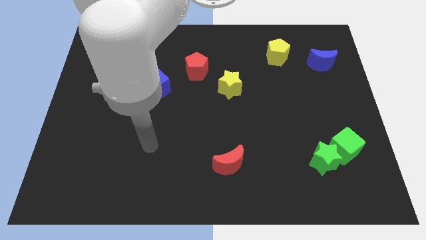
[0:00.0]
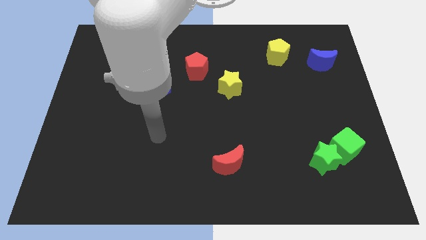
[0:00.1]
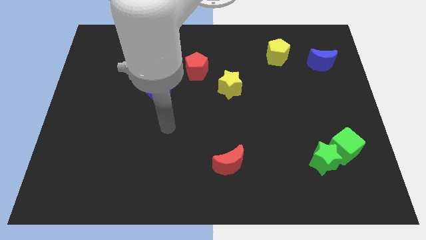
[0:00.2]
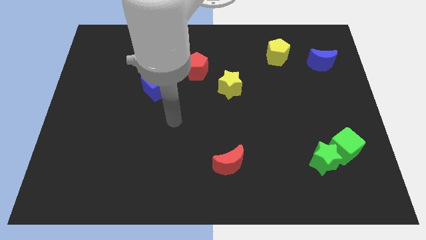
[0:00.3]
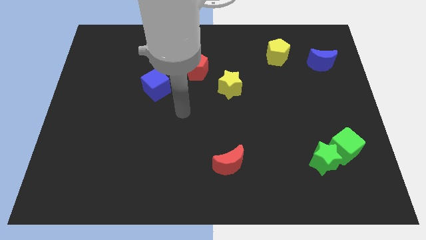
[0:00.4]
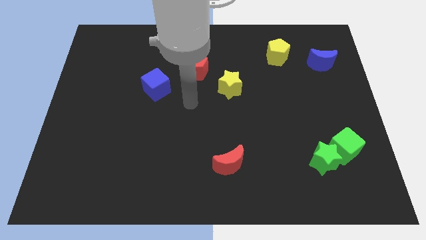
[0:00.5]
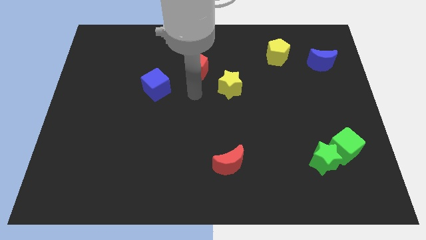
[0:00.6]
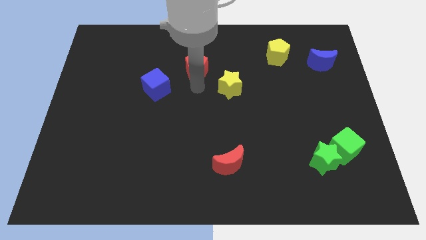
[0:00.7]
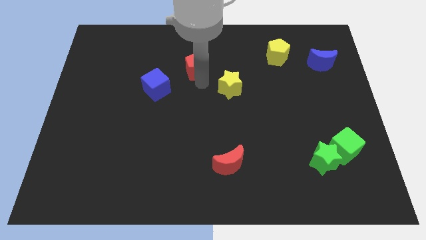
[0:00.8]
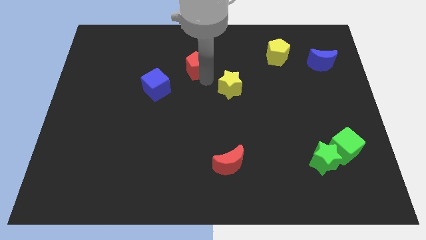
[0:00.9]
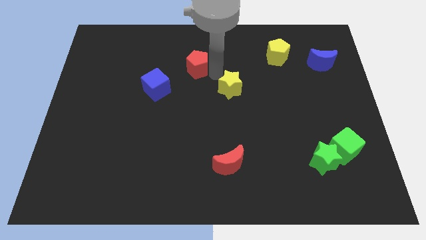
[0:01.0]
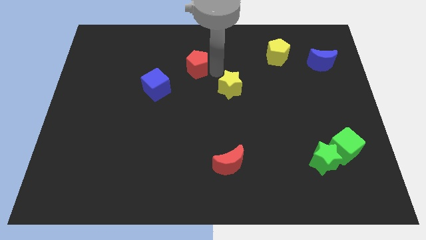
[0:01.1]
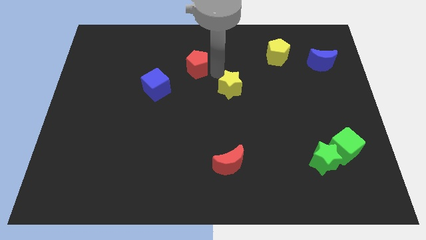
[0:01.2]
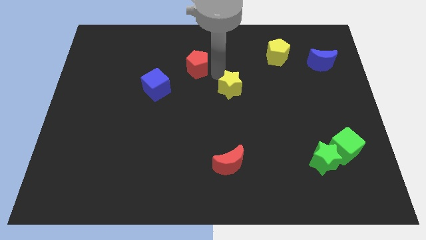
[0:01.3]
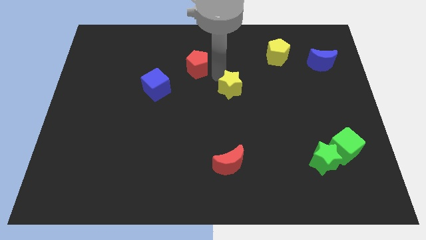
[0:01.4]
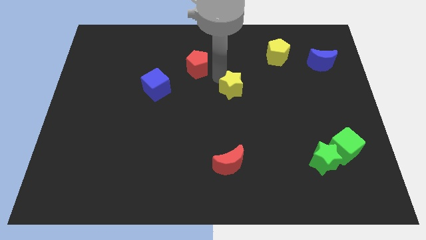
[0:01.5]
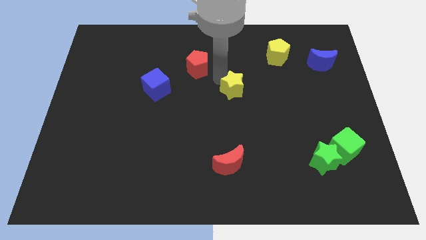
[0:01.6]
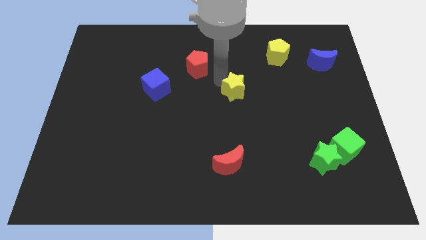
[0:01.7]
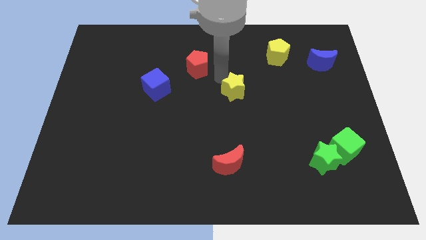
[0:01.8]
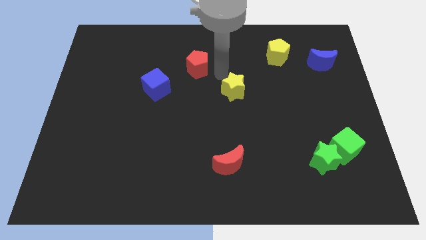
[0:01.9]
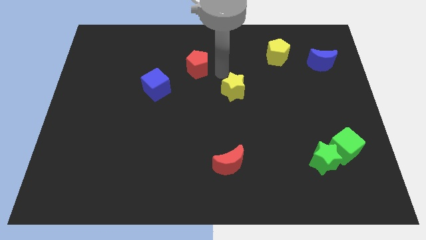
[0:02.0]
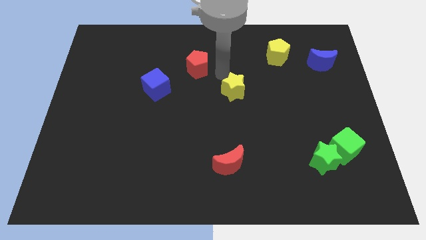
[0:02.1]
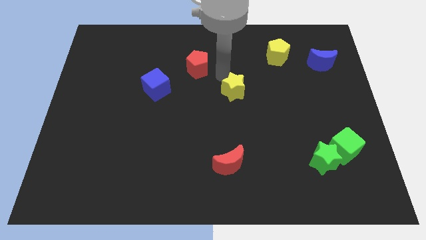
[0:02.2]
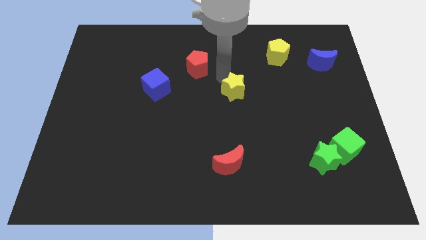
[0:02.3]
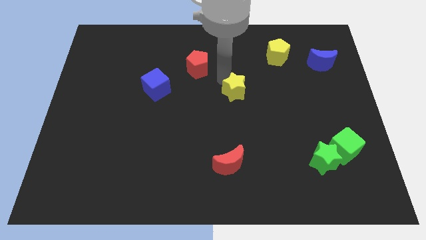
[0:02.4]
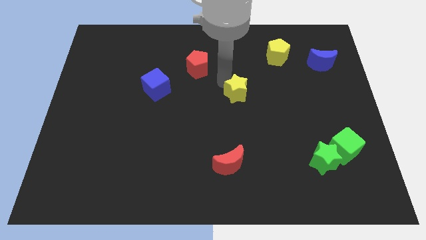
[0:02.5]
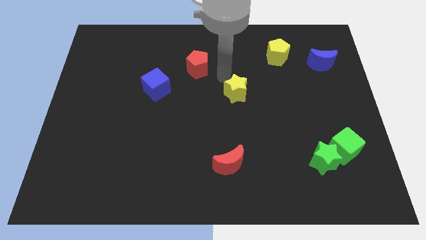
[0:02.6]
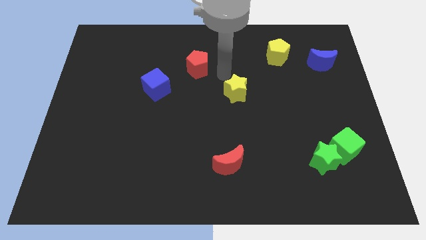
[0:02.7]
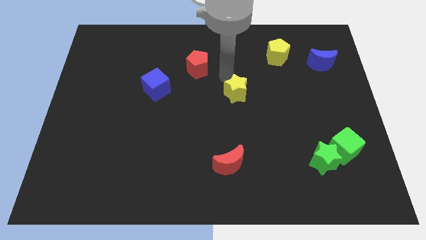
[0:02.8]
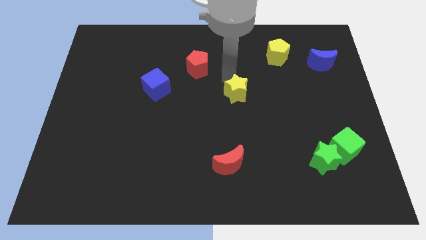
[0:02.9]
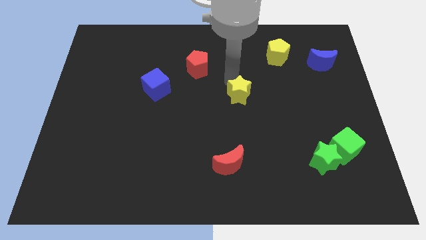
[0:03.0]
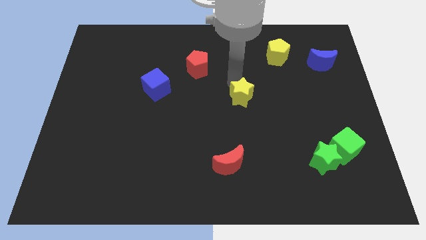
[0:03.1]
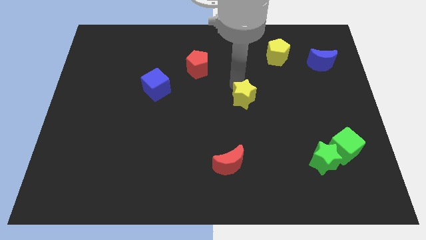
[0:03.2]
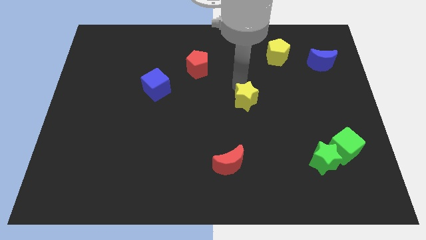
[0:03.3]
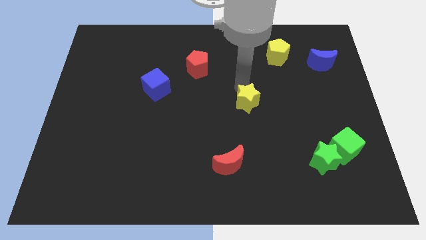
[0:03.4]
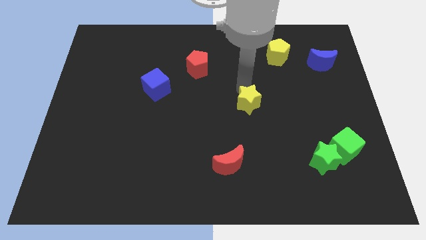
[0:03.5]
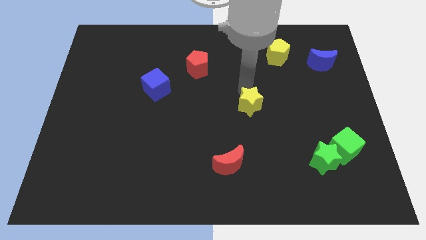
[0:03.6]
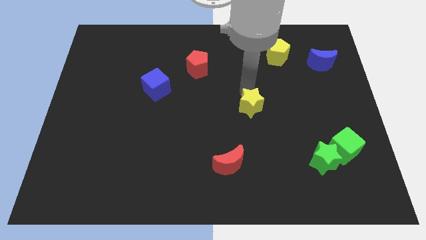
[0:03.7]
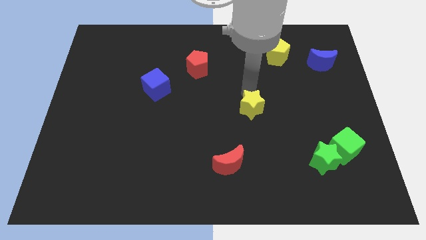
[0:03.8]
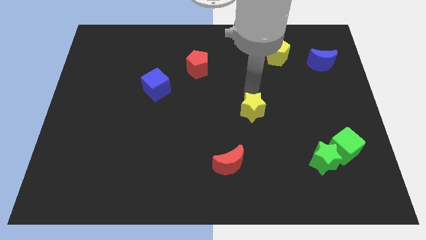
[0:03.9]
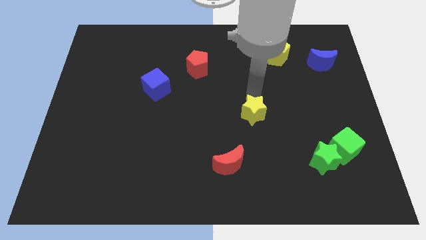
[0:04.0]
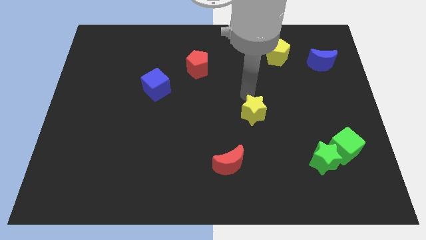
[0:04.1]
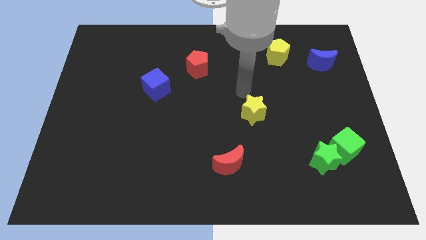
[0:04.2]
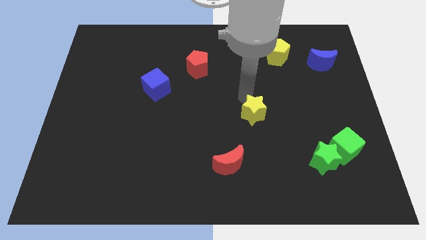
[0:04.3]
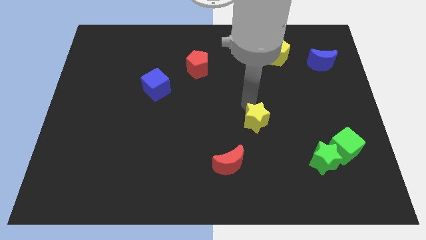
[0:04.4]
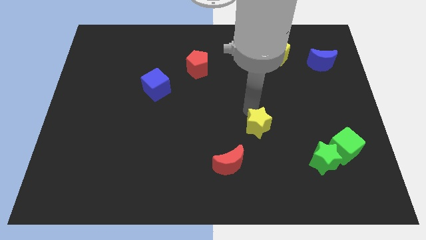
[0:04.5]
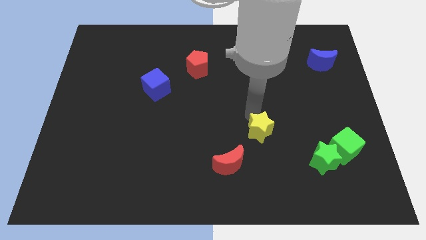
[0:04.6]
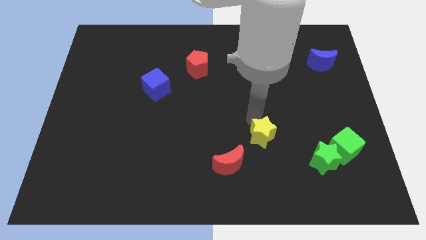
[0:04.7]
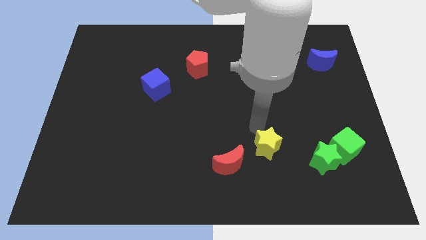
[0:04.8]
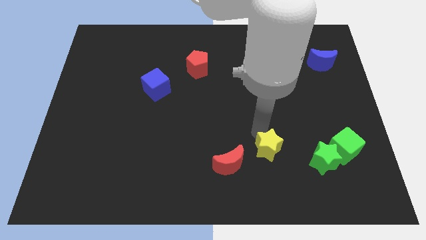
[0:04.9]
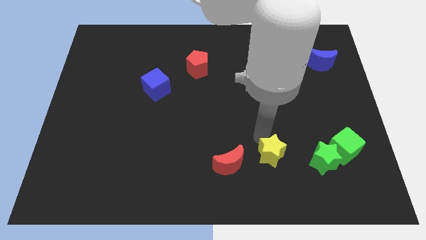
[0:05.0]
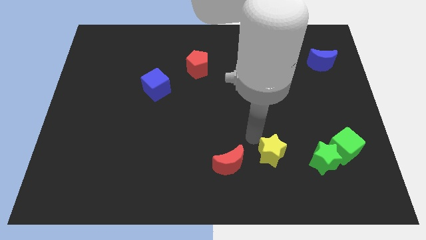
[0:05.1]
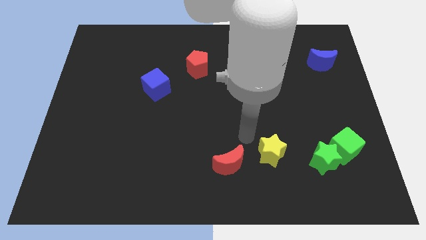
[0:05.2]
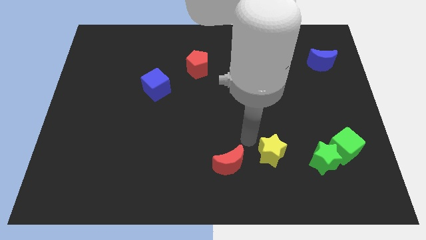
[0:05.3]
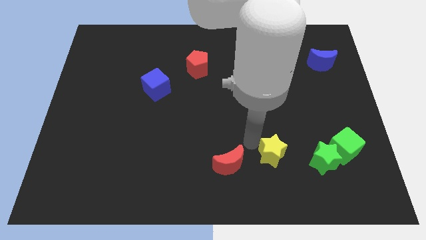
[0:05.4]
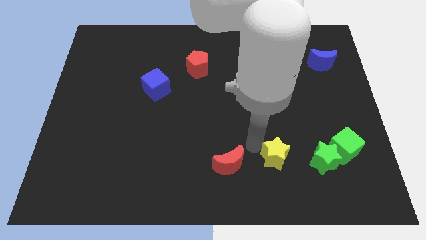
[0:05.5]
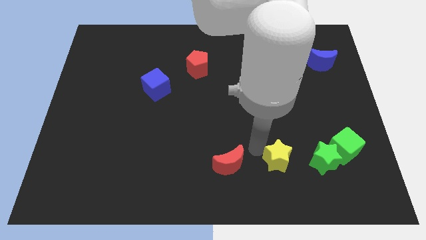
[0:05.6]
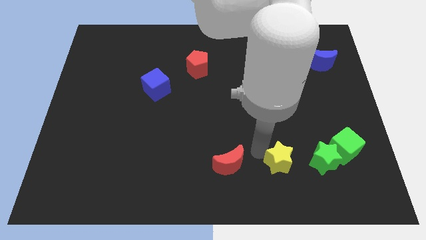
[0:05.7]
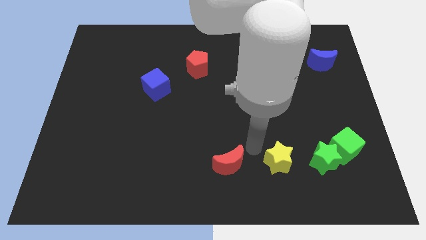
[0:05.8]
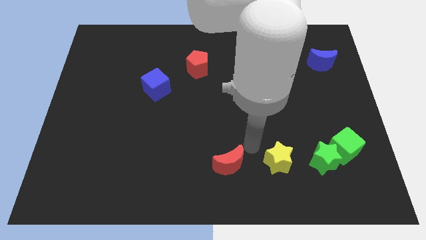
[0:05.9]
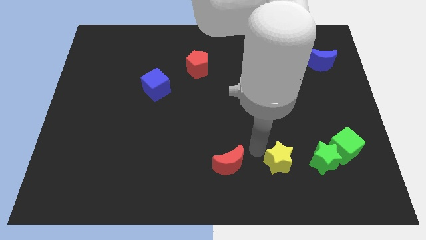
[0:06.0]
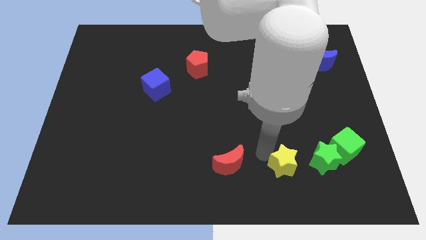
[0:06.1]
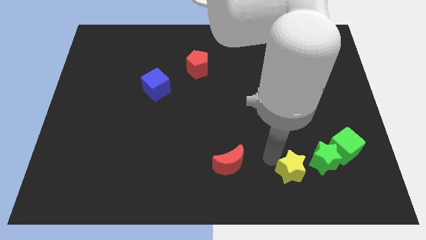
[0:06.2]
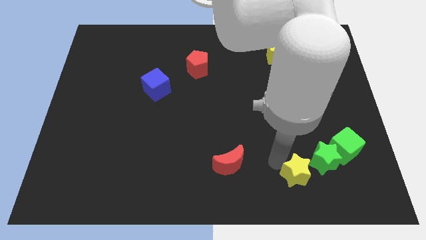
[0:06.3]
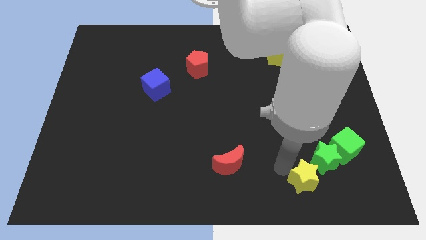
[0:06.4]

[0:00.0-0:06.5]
move the yellow star diagonally down and to the left of the green cube

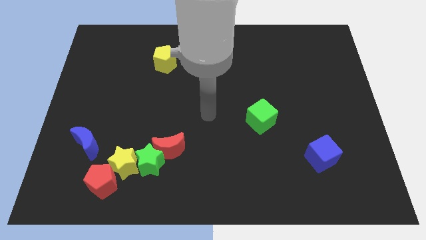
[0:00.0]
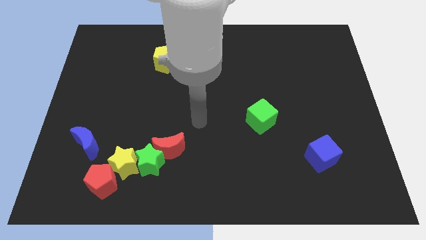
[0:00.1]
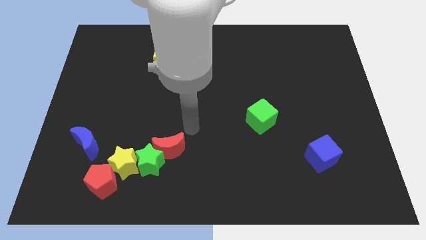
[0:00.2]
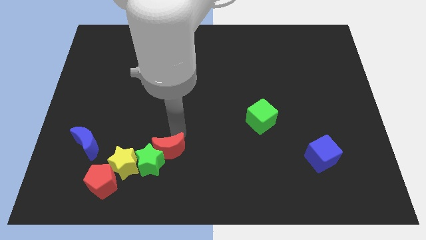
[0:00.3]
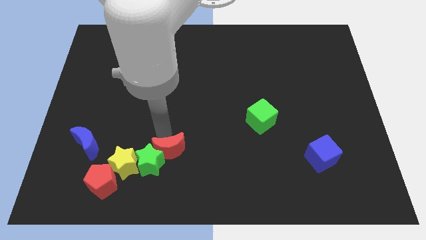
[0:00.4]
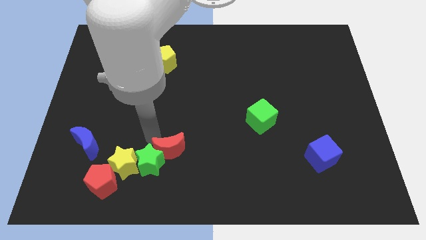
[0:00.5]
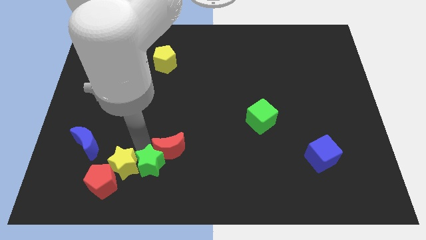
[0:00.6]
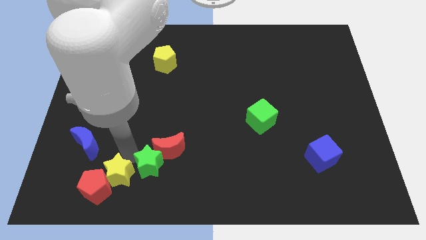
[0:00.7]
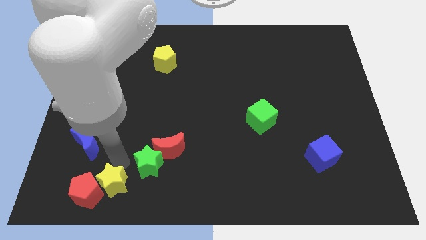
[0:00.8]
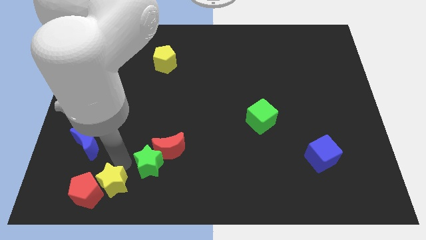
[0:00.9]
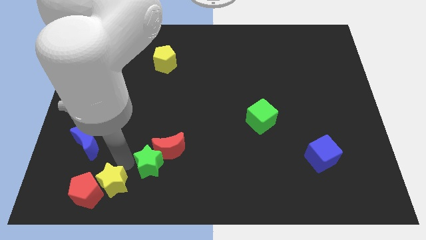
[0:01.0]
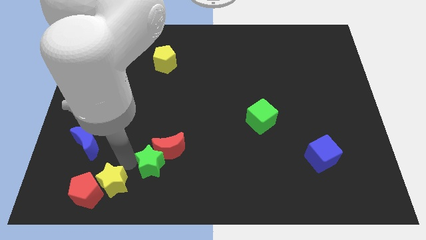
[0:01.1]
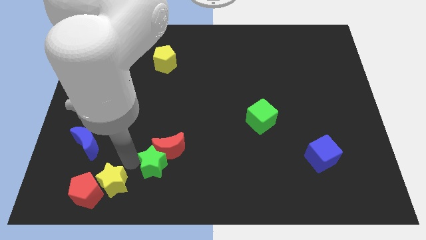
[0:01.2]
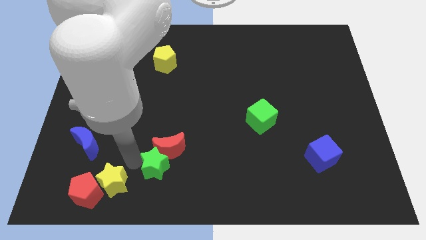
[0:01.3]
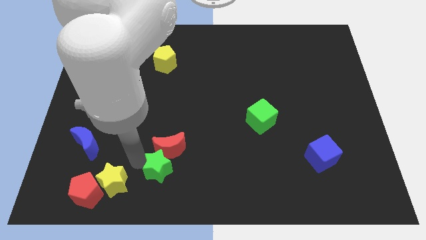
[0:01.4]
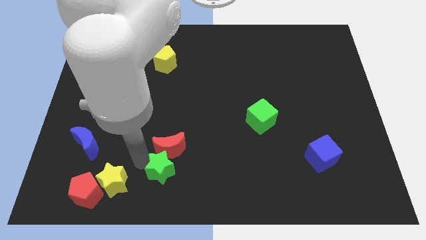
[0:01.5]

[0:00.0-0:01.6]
move the green star to the bottom right of the red moon
